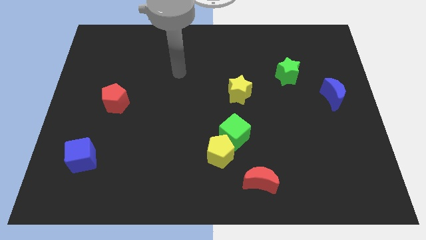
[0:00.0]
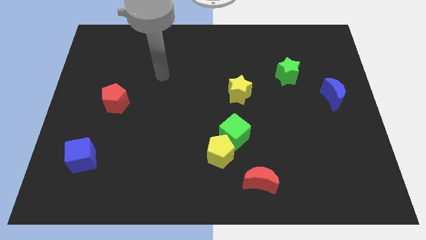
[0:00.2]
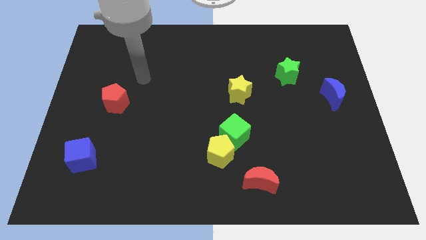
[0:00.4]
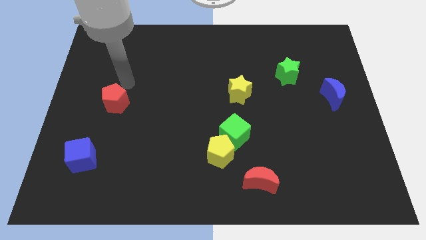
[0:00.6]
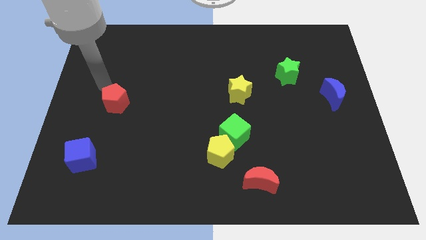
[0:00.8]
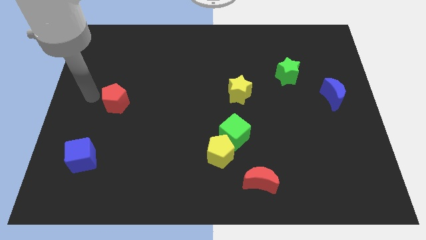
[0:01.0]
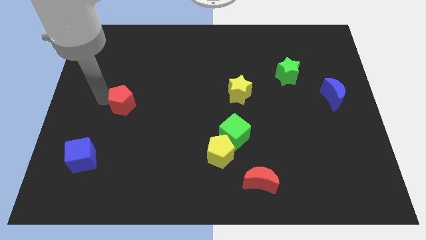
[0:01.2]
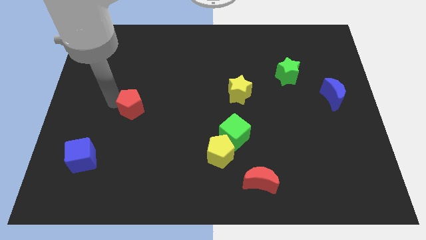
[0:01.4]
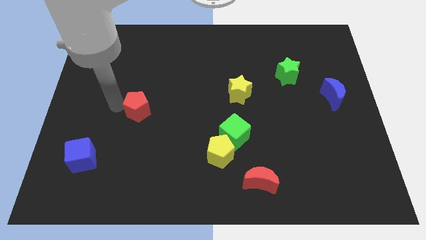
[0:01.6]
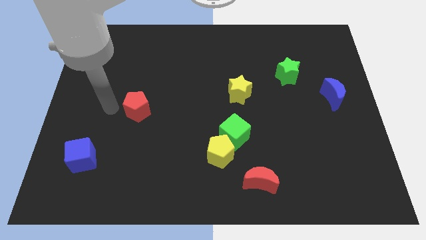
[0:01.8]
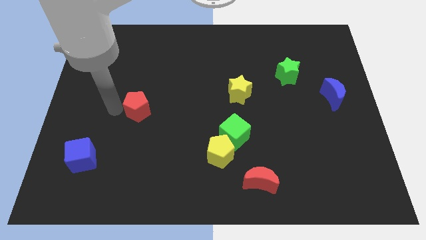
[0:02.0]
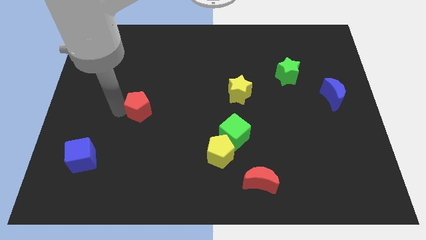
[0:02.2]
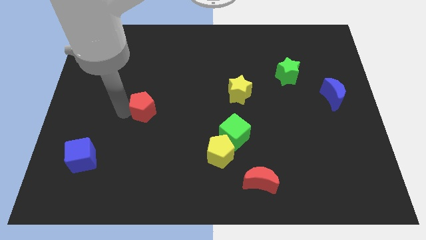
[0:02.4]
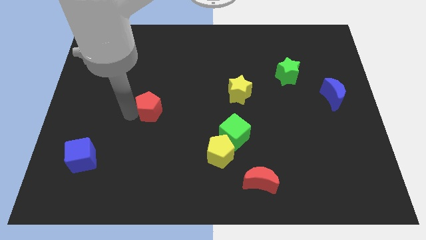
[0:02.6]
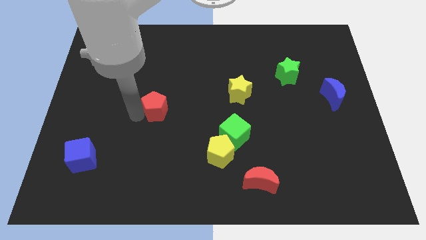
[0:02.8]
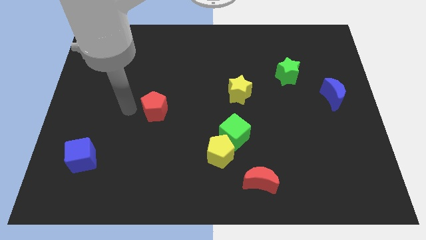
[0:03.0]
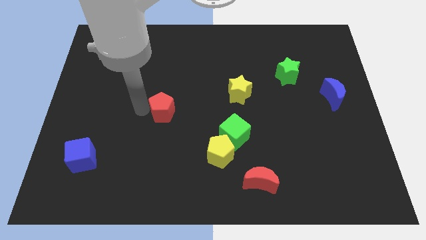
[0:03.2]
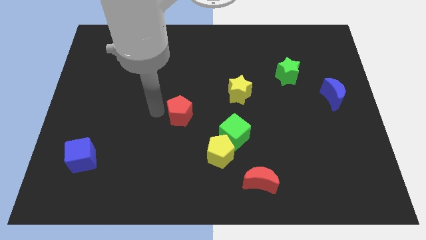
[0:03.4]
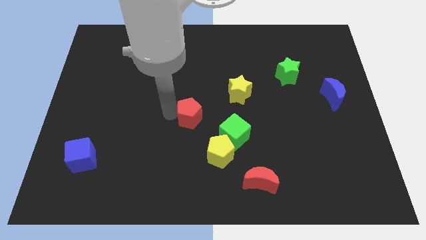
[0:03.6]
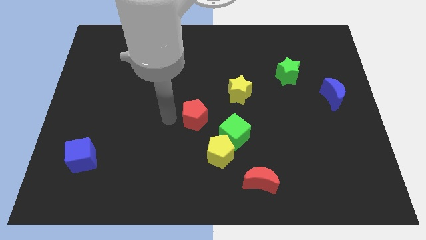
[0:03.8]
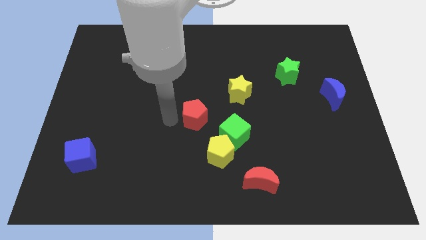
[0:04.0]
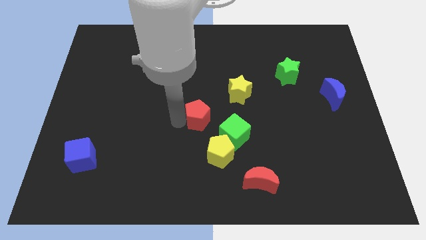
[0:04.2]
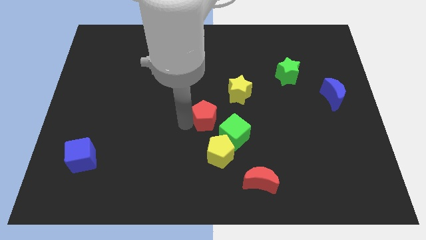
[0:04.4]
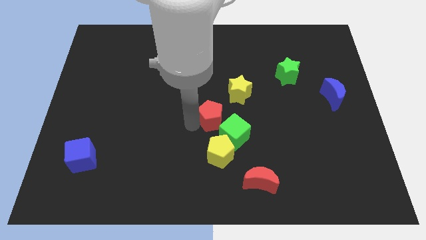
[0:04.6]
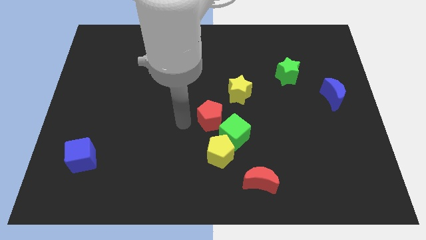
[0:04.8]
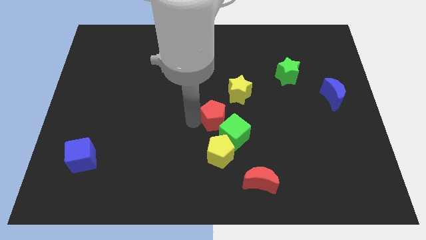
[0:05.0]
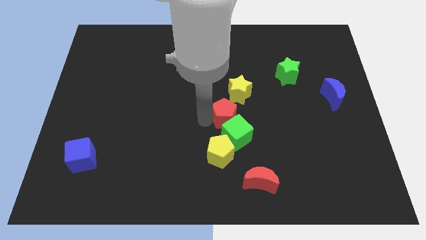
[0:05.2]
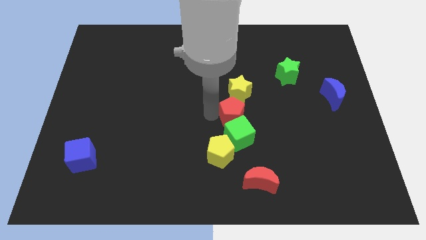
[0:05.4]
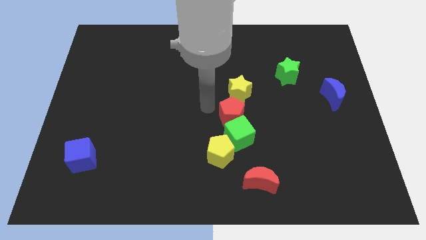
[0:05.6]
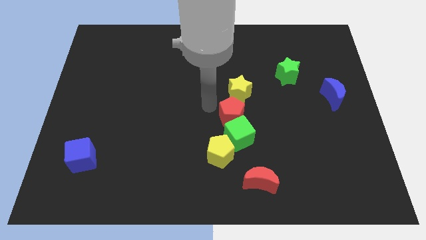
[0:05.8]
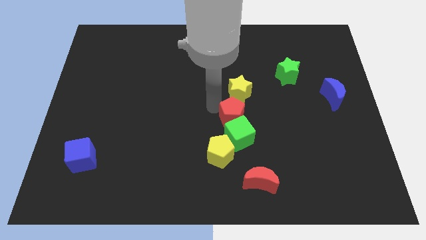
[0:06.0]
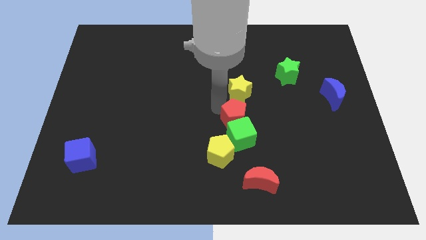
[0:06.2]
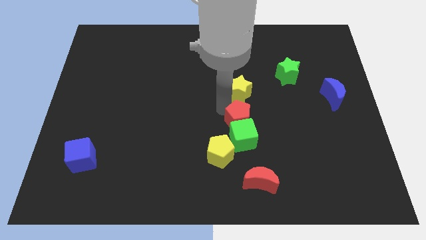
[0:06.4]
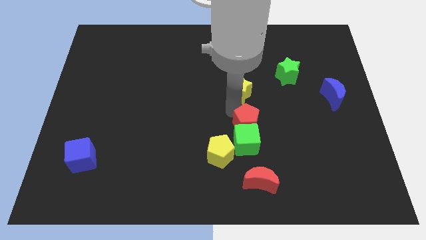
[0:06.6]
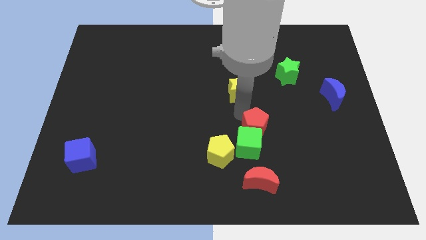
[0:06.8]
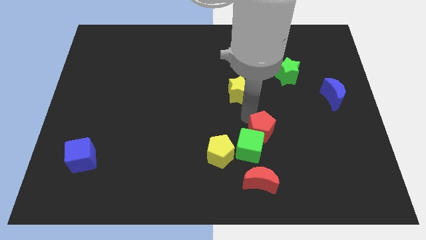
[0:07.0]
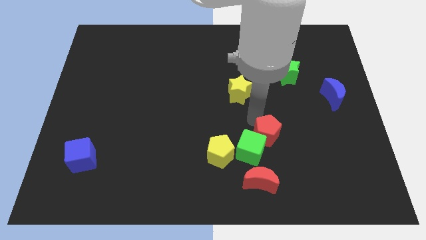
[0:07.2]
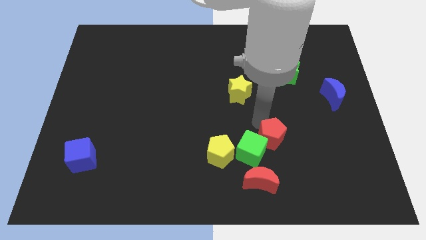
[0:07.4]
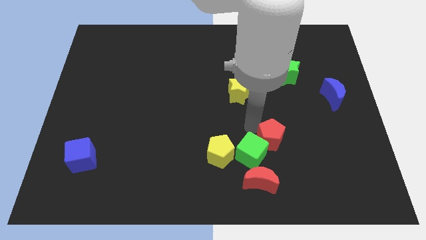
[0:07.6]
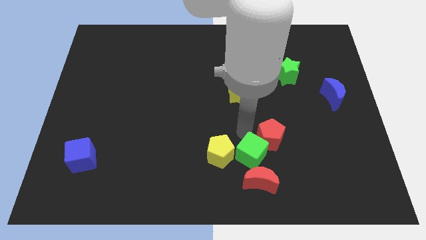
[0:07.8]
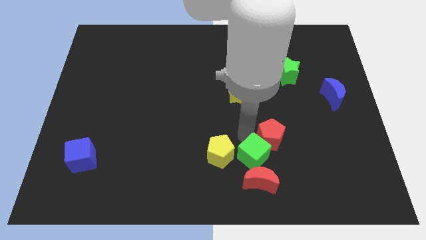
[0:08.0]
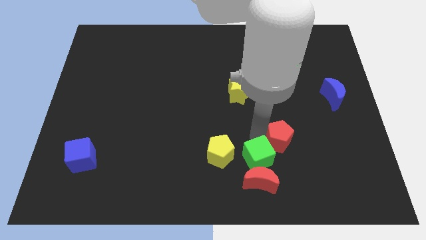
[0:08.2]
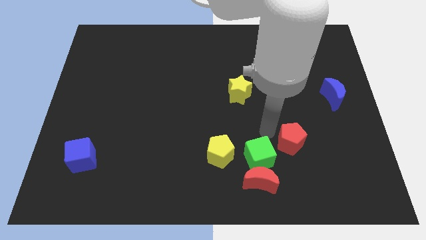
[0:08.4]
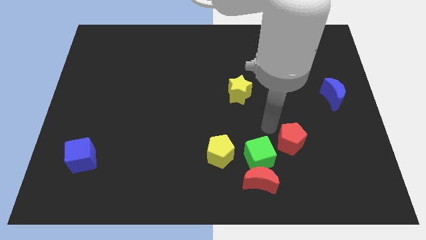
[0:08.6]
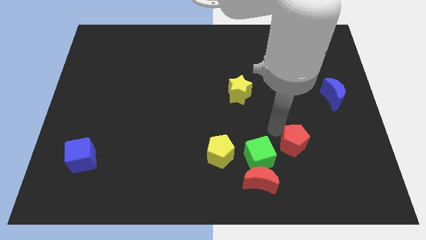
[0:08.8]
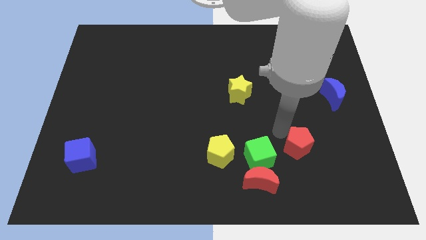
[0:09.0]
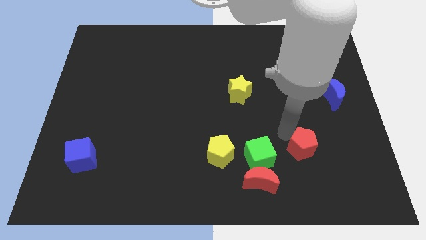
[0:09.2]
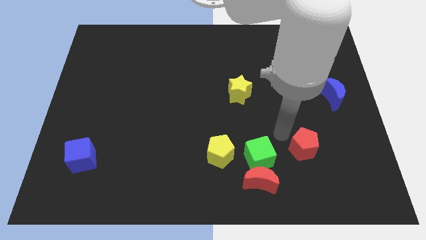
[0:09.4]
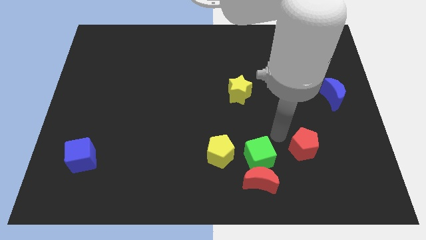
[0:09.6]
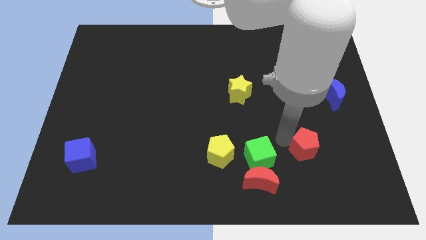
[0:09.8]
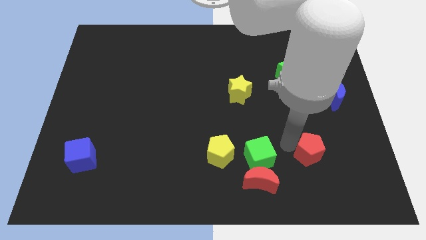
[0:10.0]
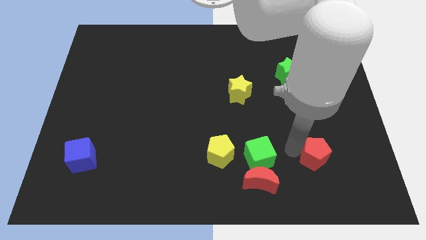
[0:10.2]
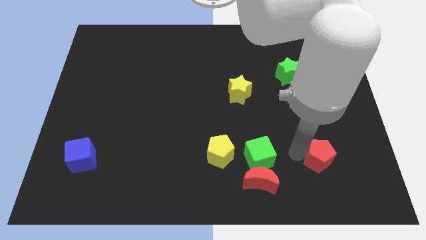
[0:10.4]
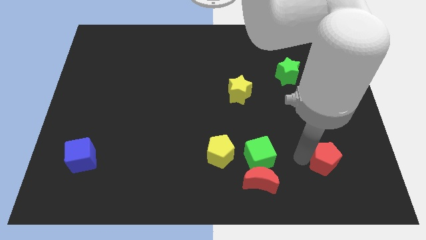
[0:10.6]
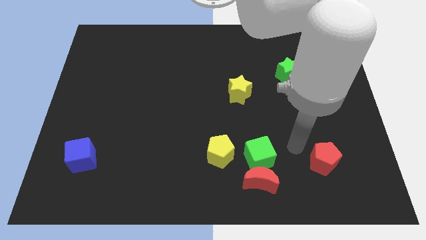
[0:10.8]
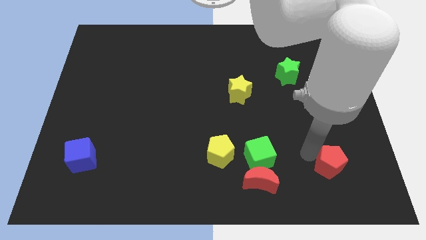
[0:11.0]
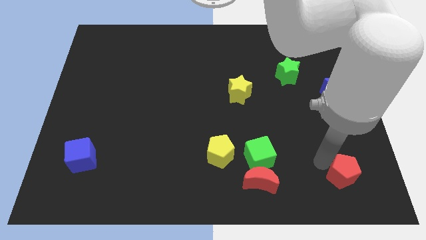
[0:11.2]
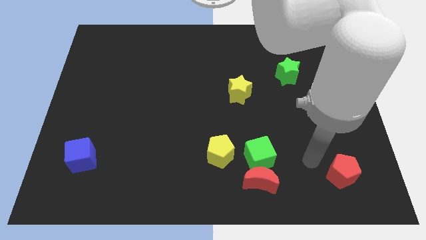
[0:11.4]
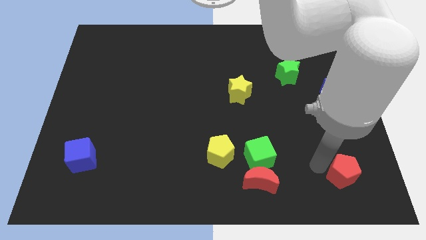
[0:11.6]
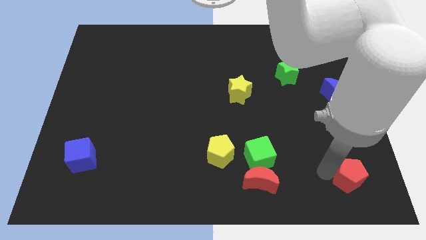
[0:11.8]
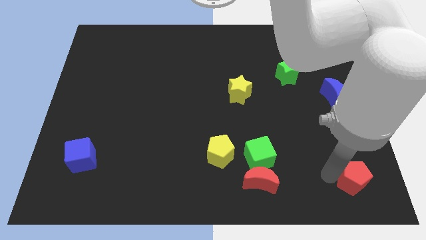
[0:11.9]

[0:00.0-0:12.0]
push the red pentagon to the bottom right of the board

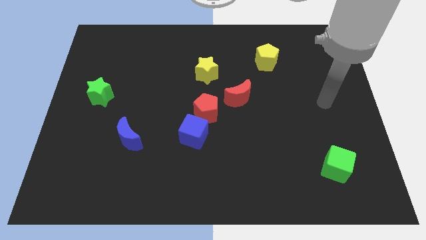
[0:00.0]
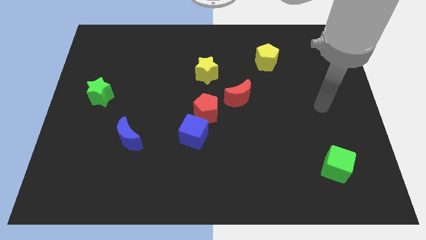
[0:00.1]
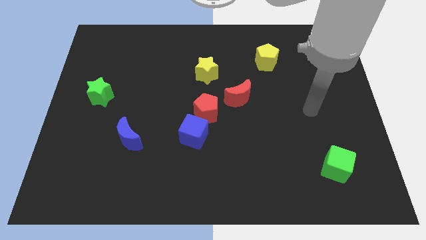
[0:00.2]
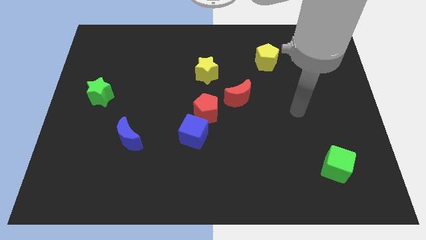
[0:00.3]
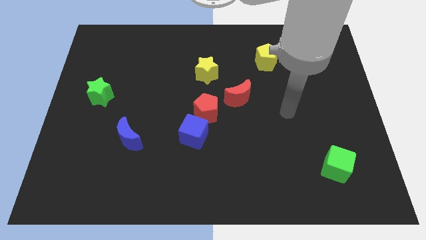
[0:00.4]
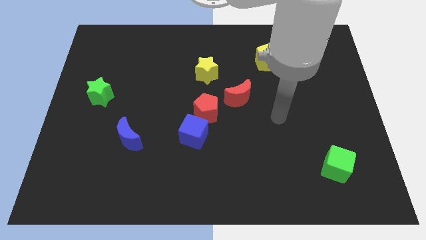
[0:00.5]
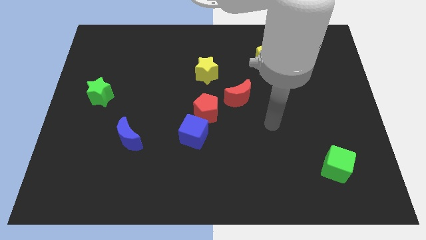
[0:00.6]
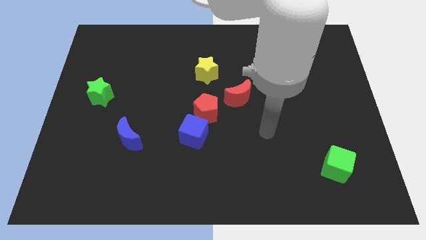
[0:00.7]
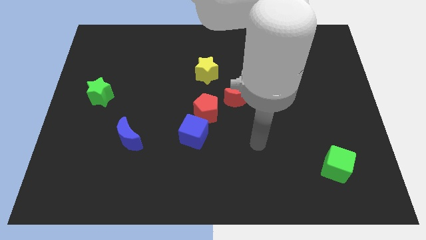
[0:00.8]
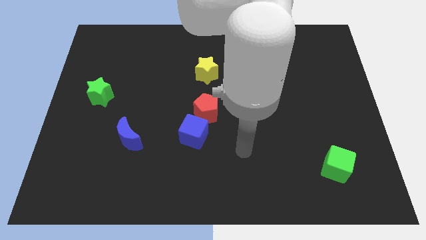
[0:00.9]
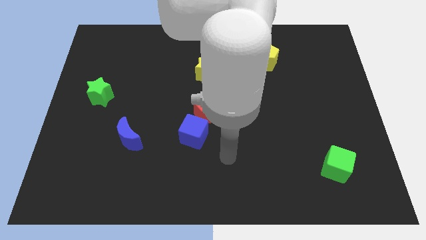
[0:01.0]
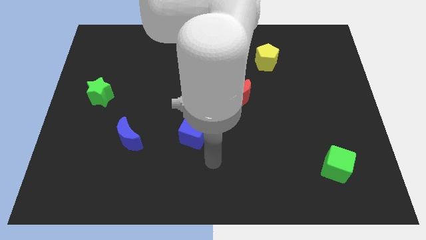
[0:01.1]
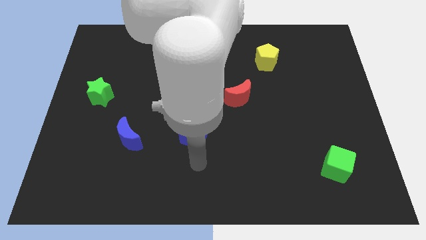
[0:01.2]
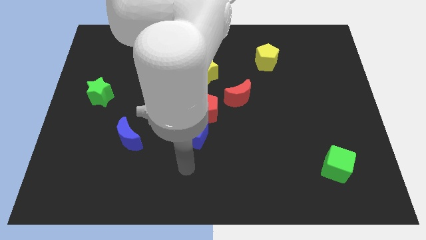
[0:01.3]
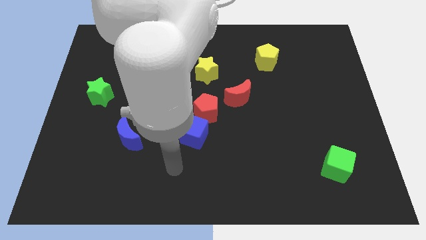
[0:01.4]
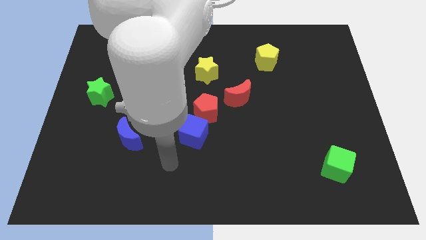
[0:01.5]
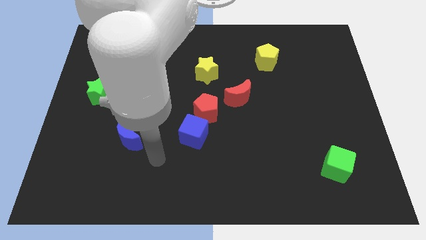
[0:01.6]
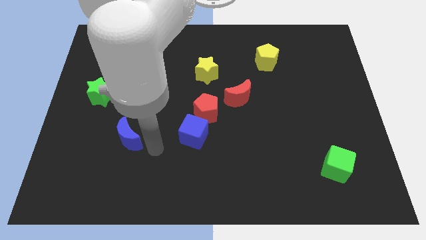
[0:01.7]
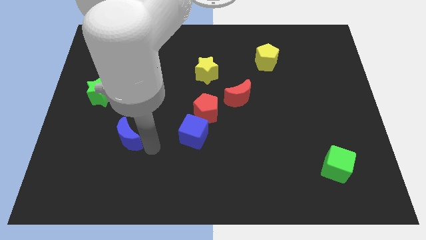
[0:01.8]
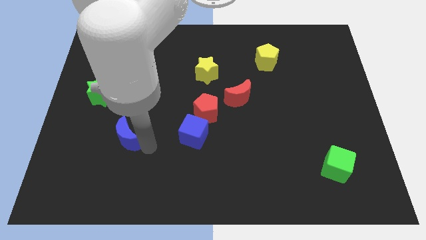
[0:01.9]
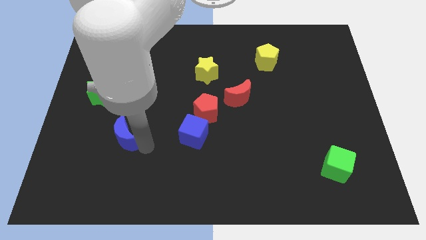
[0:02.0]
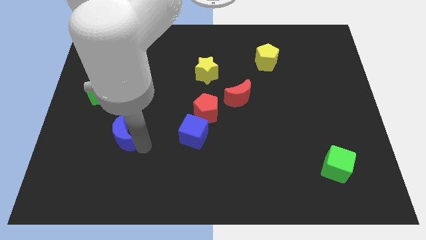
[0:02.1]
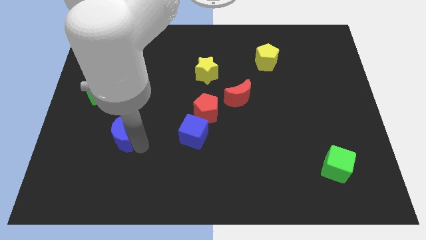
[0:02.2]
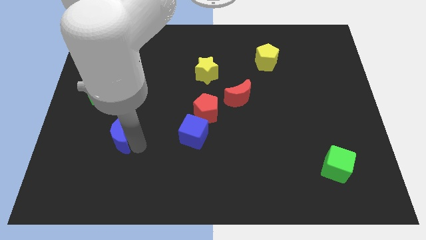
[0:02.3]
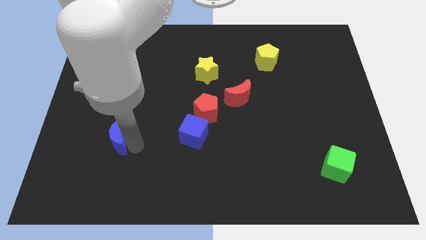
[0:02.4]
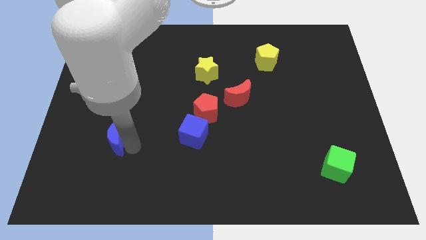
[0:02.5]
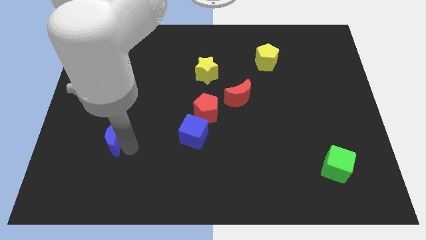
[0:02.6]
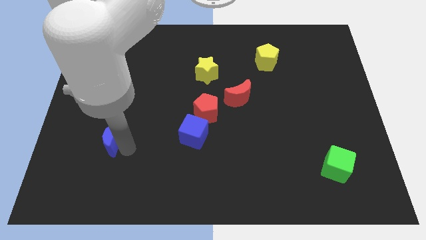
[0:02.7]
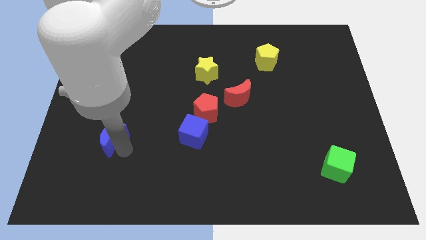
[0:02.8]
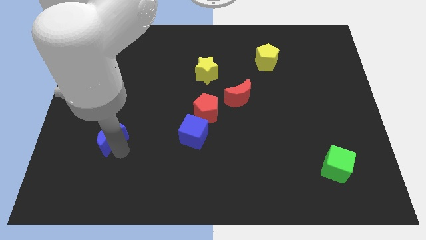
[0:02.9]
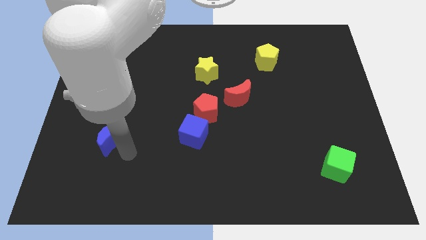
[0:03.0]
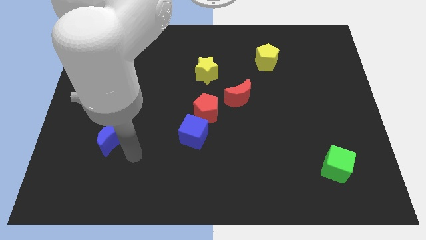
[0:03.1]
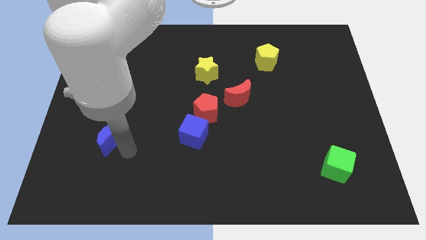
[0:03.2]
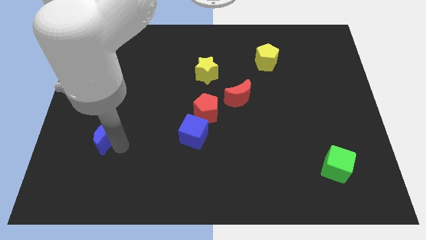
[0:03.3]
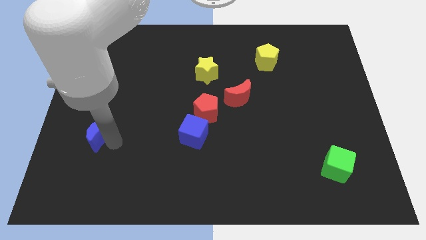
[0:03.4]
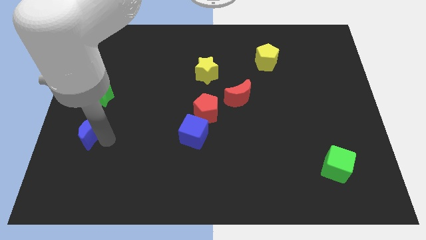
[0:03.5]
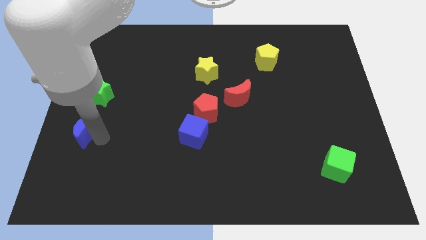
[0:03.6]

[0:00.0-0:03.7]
push the blue moon to the center left
